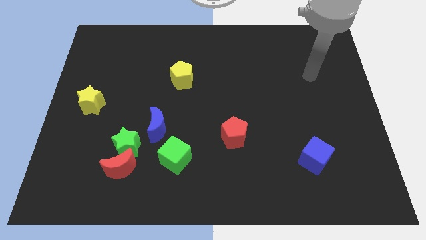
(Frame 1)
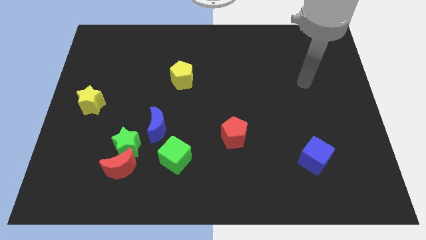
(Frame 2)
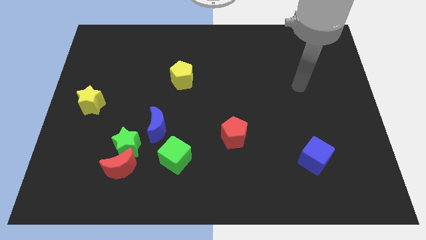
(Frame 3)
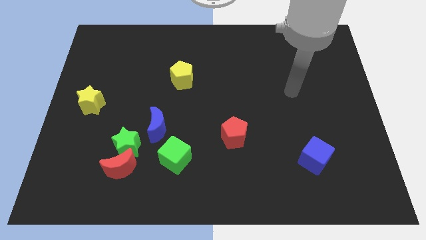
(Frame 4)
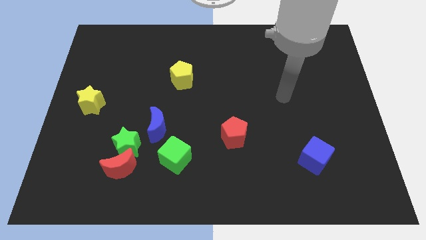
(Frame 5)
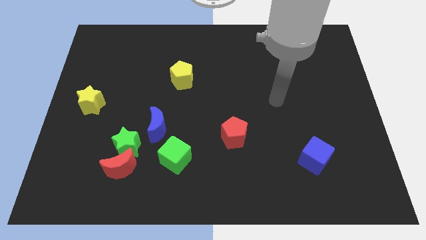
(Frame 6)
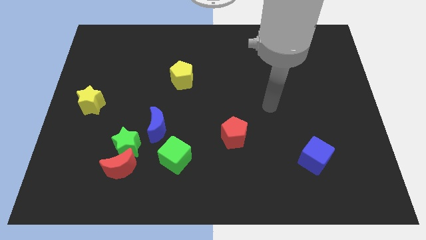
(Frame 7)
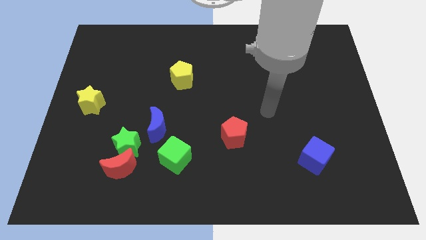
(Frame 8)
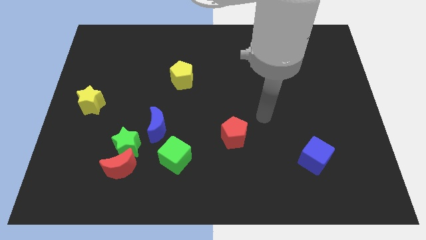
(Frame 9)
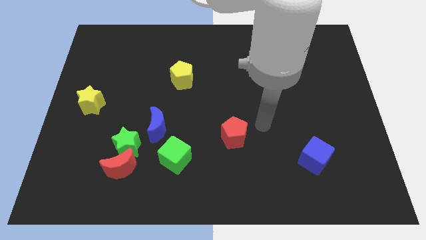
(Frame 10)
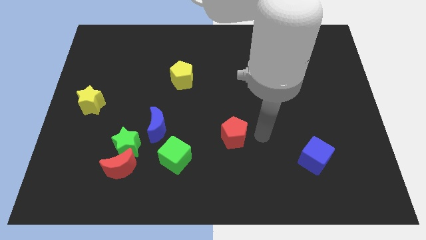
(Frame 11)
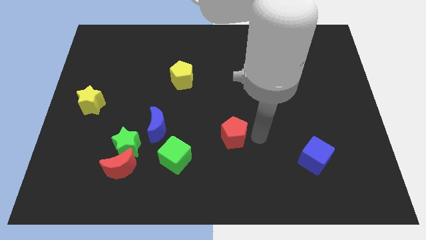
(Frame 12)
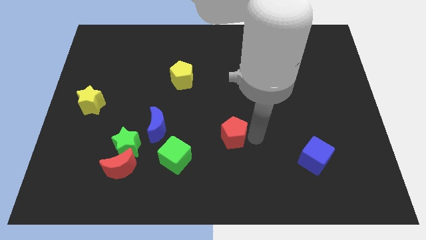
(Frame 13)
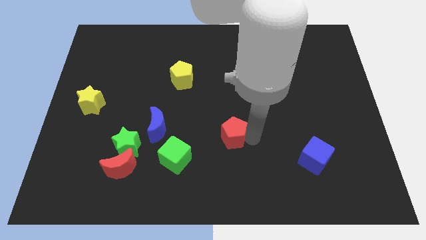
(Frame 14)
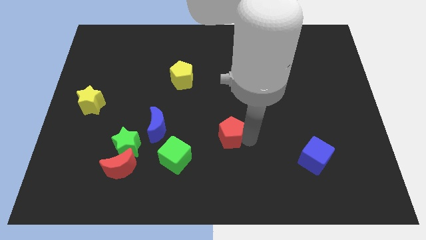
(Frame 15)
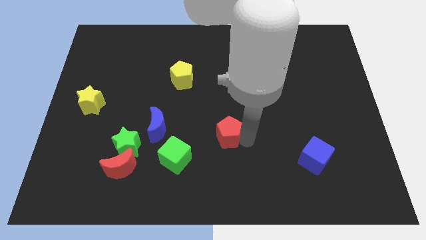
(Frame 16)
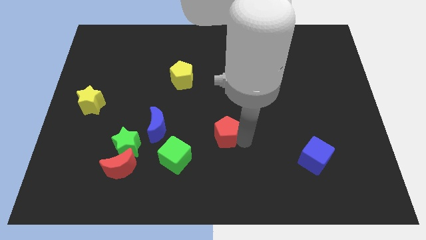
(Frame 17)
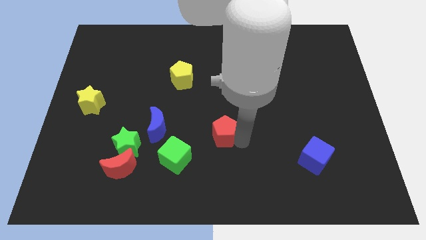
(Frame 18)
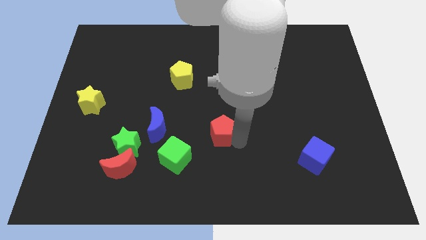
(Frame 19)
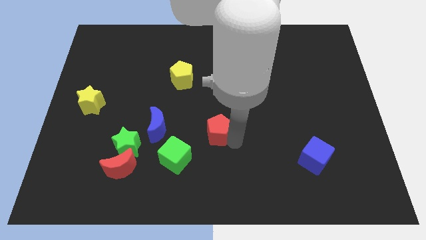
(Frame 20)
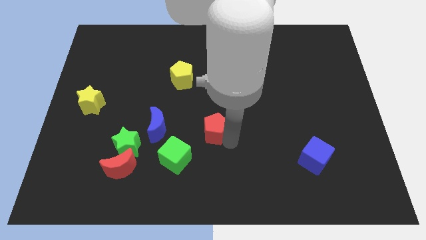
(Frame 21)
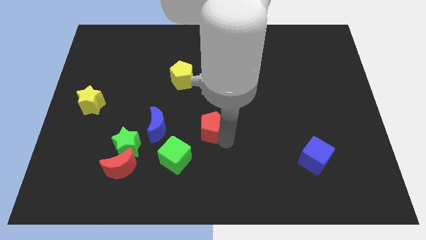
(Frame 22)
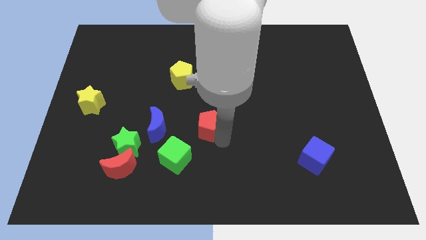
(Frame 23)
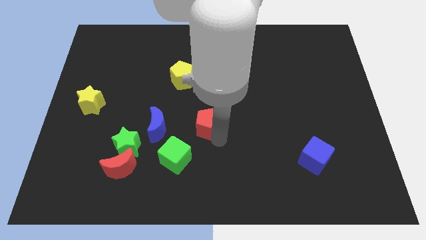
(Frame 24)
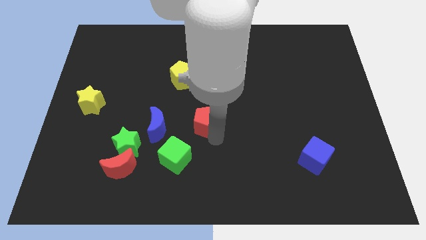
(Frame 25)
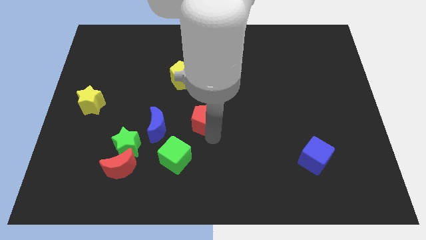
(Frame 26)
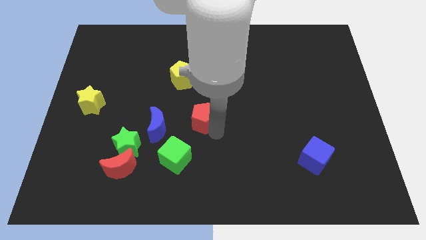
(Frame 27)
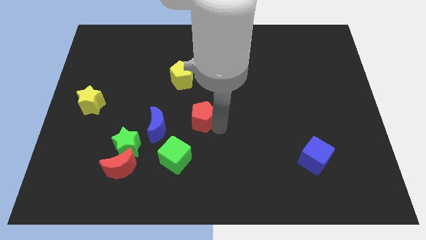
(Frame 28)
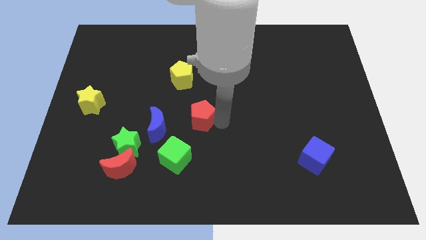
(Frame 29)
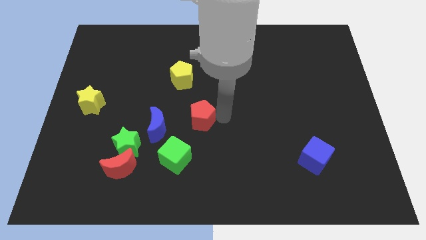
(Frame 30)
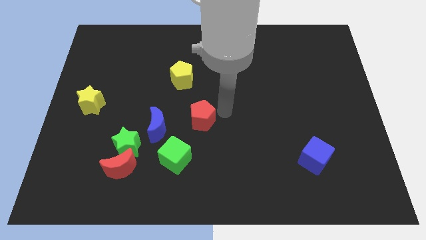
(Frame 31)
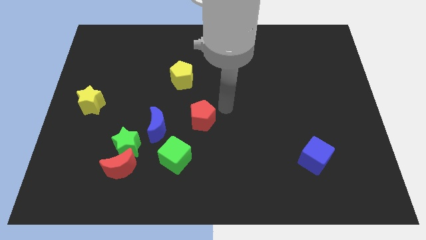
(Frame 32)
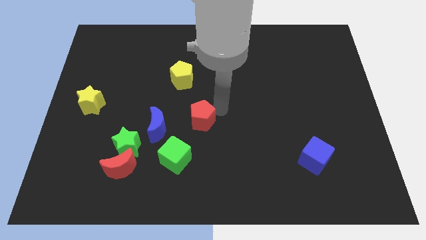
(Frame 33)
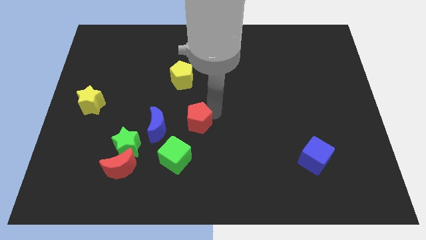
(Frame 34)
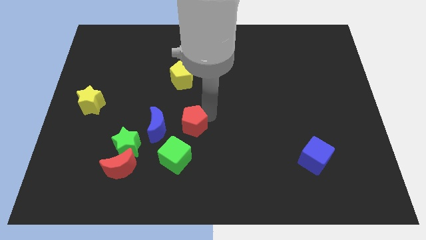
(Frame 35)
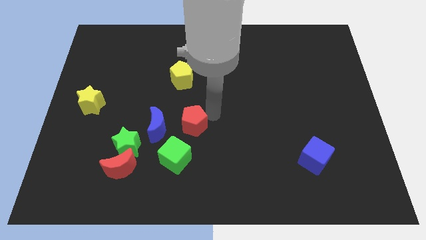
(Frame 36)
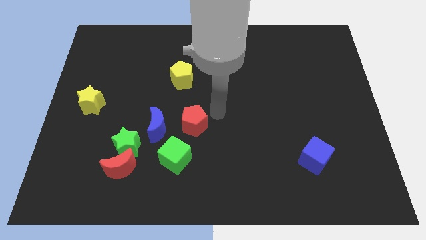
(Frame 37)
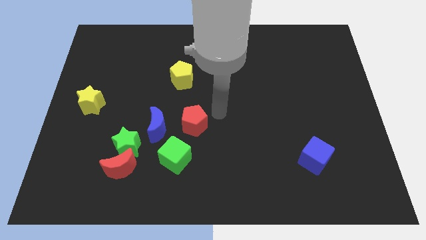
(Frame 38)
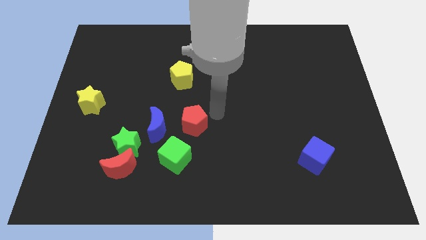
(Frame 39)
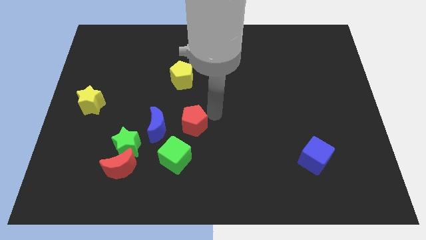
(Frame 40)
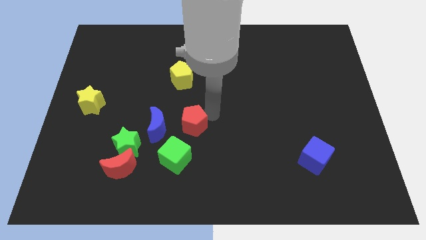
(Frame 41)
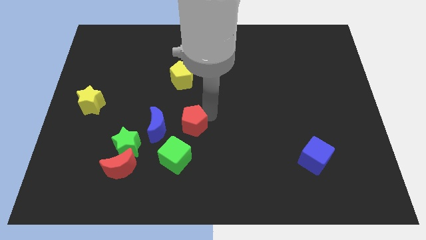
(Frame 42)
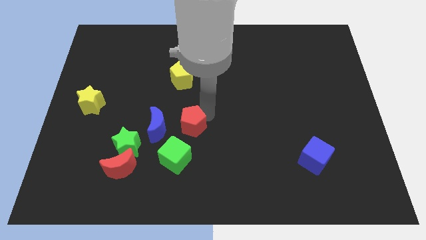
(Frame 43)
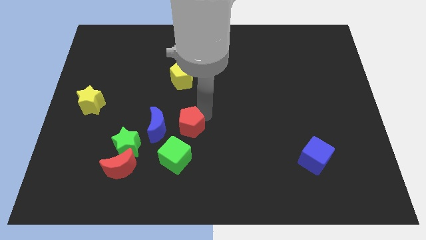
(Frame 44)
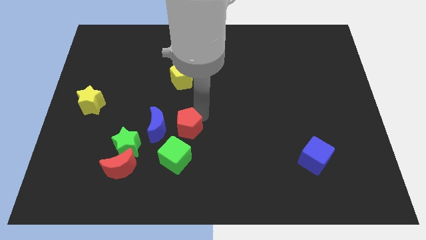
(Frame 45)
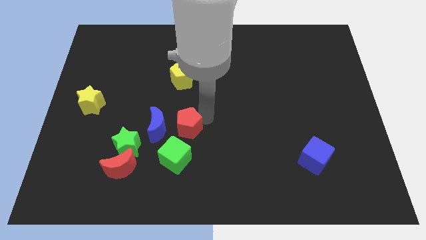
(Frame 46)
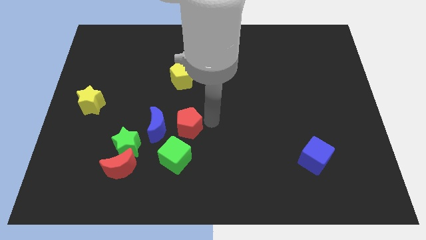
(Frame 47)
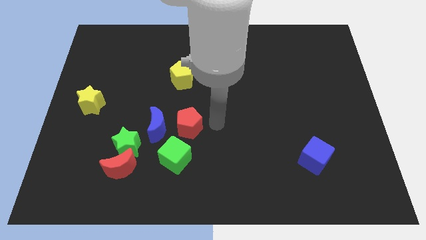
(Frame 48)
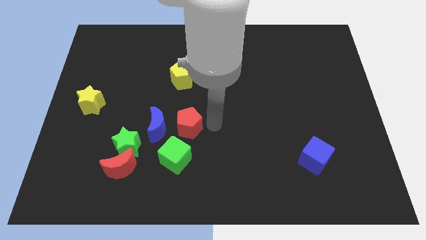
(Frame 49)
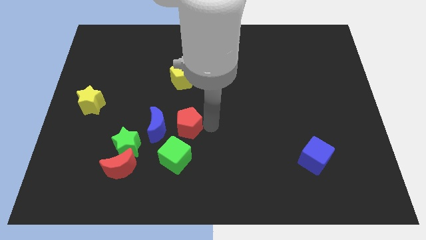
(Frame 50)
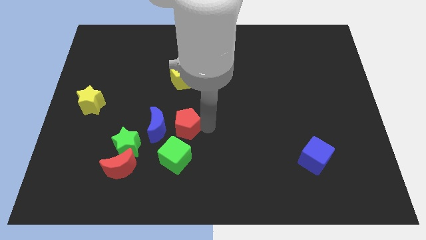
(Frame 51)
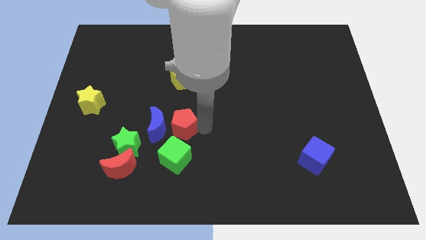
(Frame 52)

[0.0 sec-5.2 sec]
push the red pentagon next to the blue moon

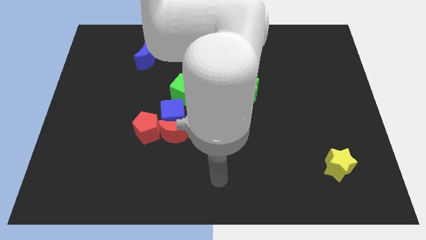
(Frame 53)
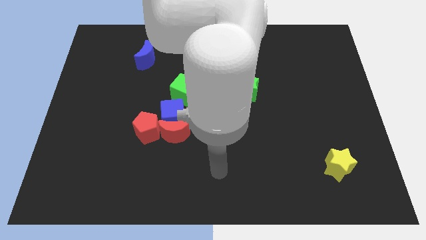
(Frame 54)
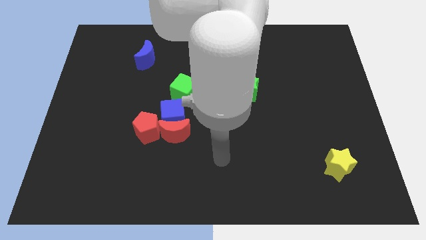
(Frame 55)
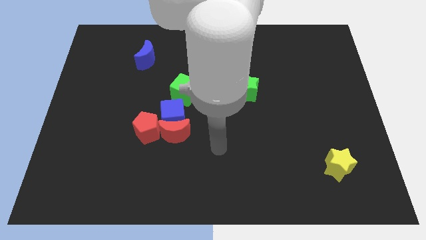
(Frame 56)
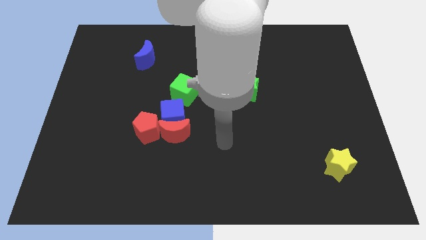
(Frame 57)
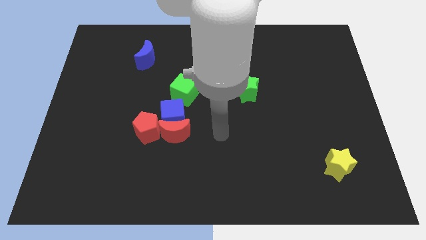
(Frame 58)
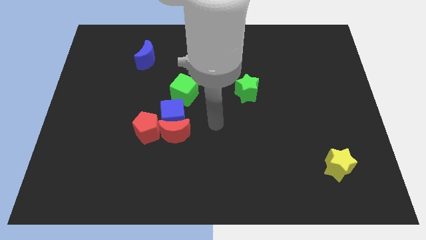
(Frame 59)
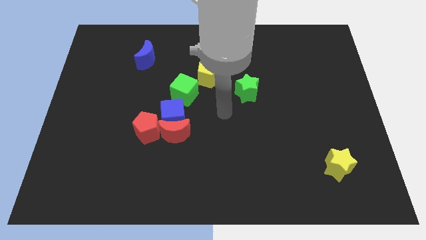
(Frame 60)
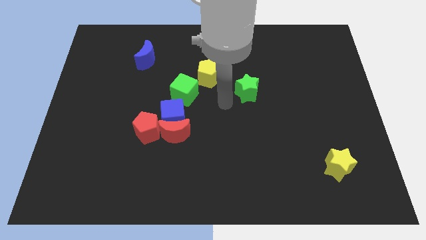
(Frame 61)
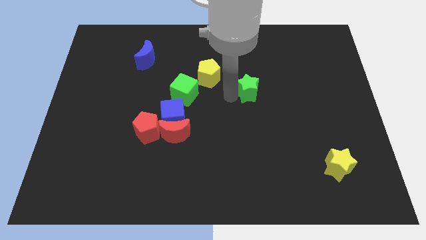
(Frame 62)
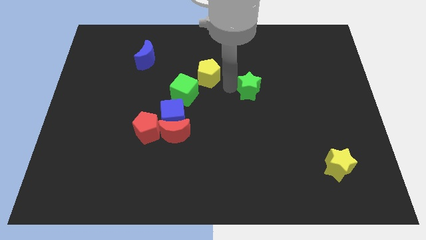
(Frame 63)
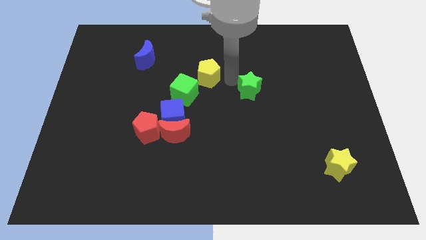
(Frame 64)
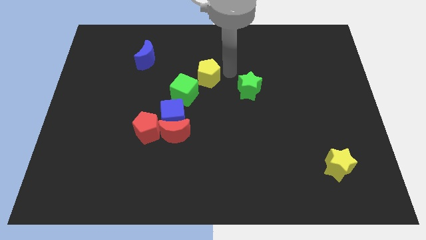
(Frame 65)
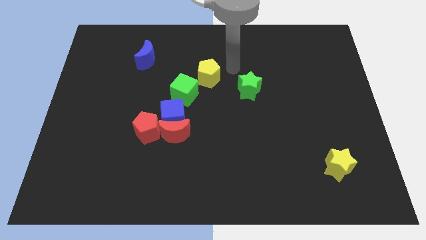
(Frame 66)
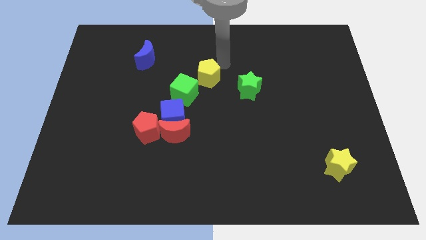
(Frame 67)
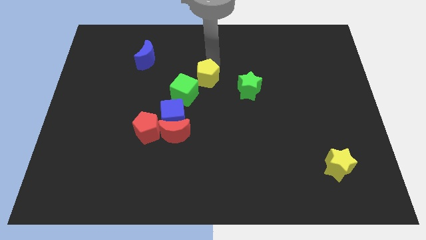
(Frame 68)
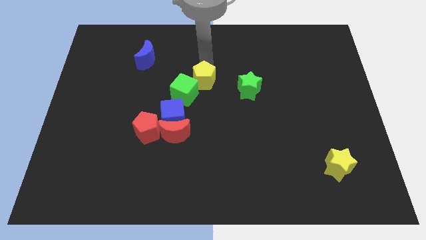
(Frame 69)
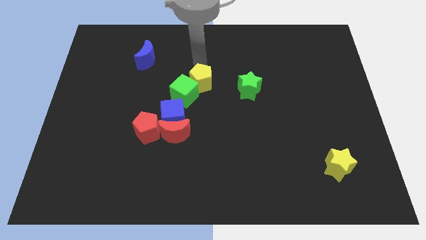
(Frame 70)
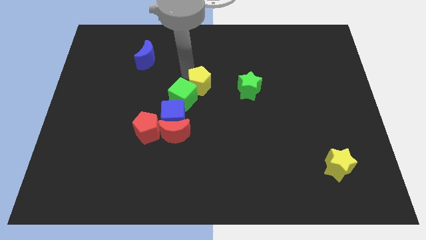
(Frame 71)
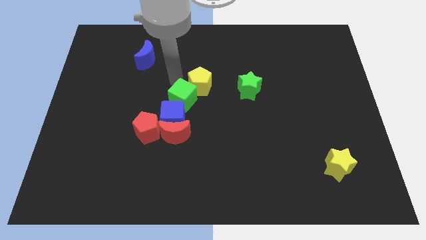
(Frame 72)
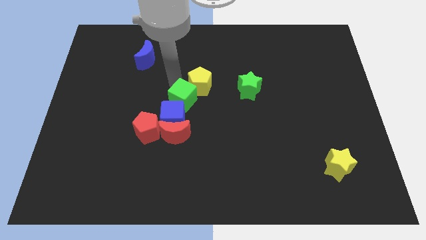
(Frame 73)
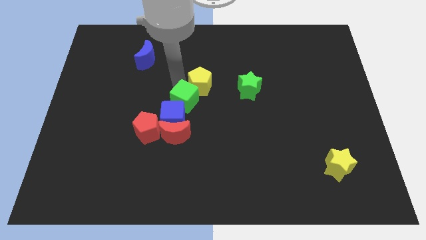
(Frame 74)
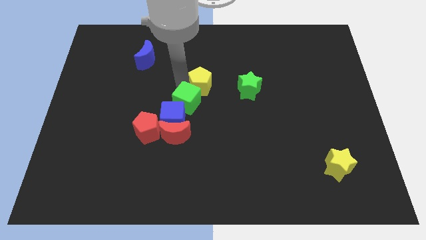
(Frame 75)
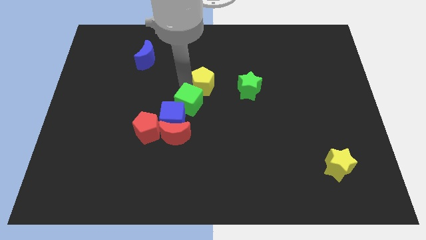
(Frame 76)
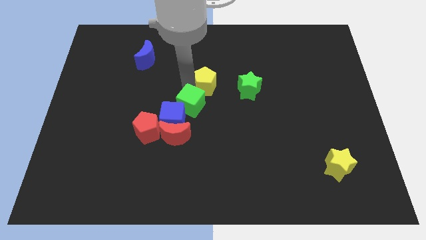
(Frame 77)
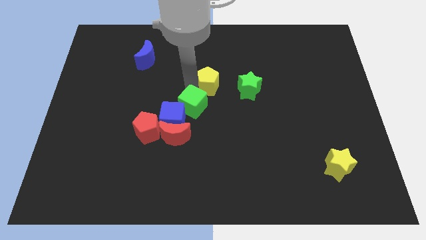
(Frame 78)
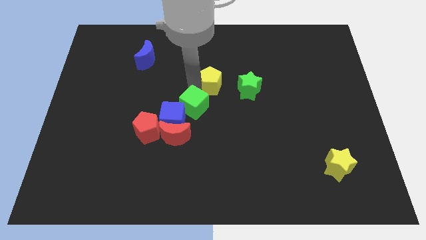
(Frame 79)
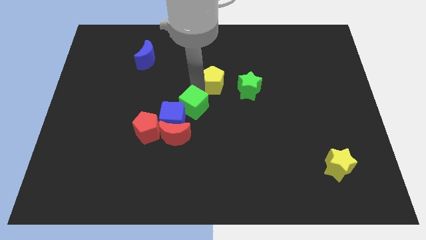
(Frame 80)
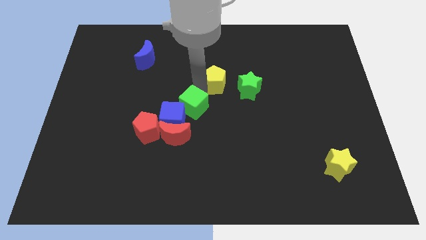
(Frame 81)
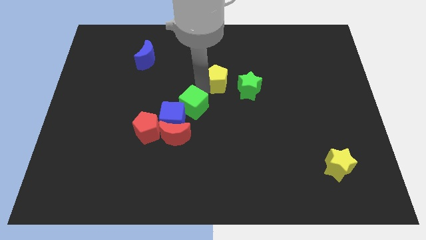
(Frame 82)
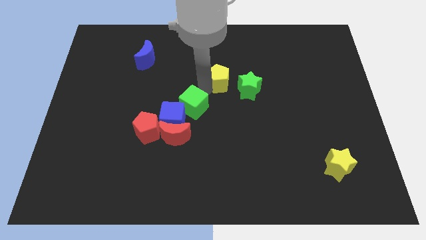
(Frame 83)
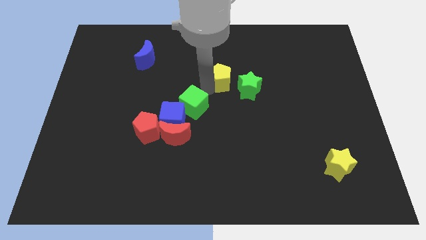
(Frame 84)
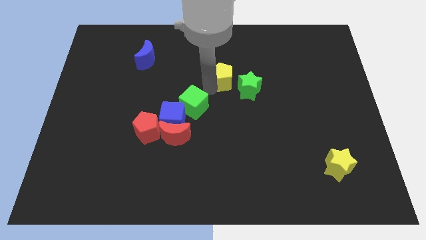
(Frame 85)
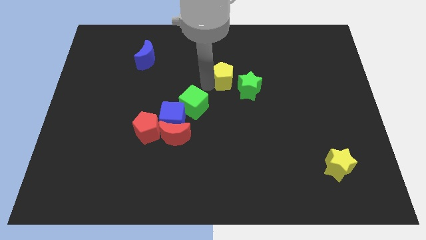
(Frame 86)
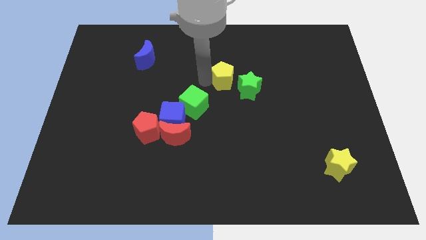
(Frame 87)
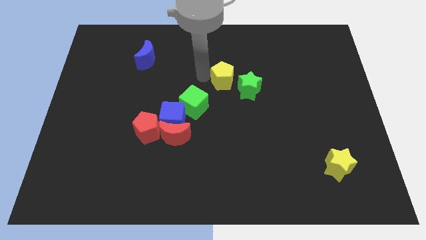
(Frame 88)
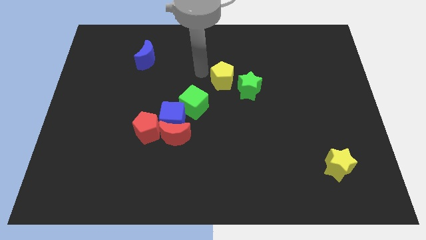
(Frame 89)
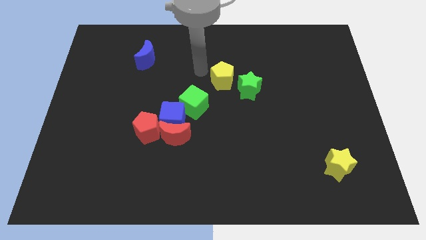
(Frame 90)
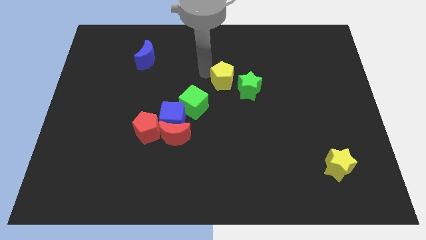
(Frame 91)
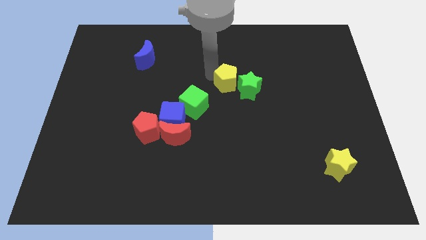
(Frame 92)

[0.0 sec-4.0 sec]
push the yellow pentagon close to the green star
